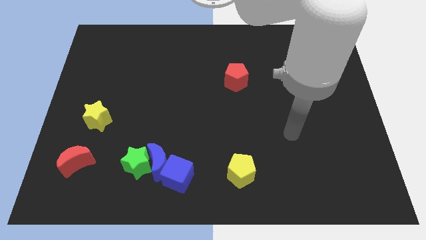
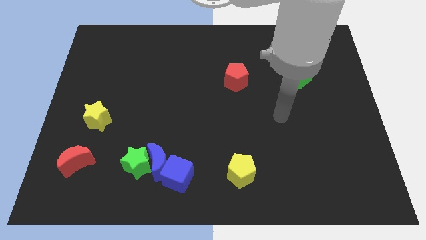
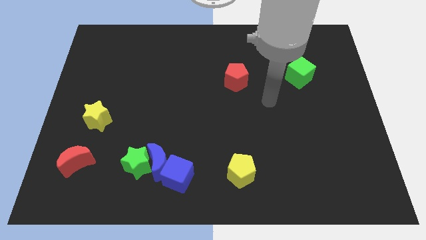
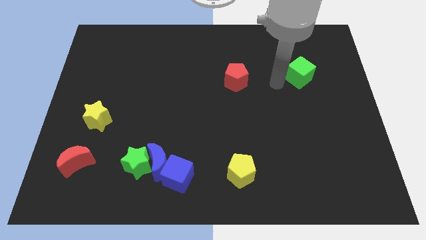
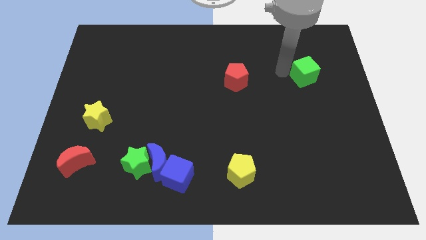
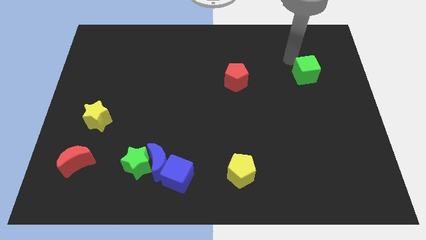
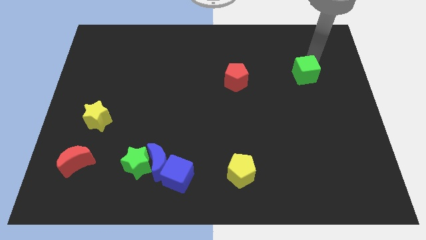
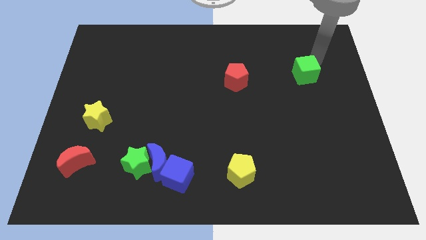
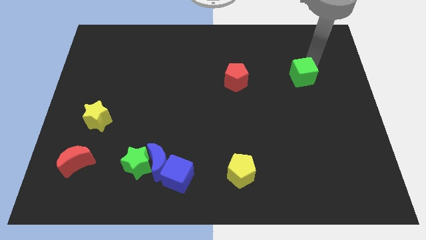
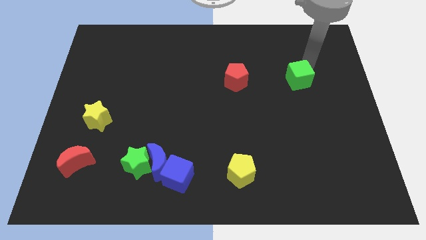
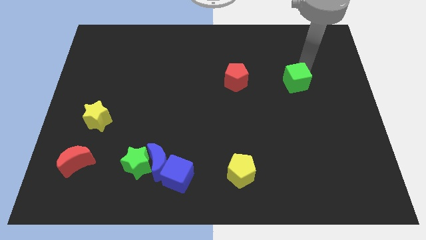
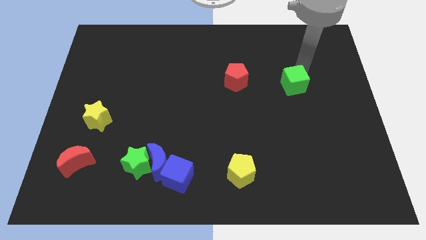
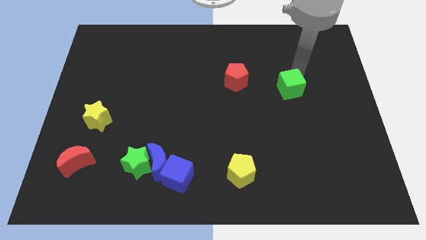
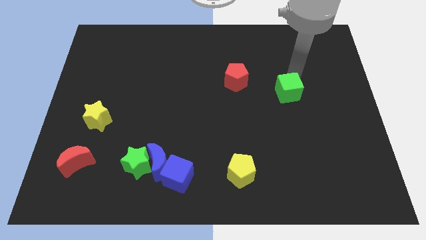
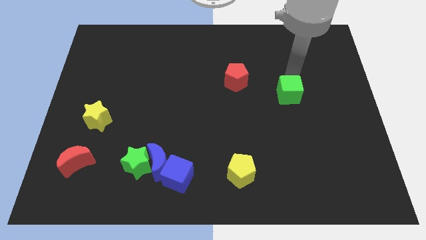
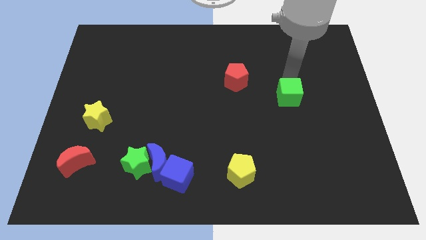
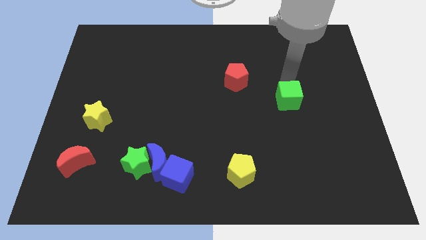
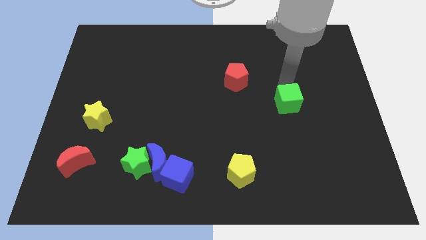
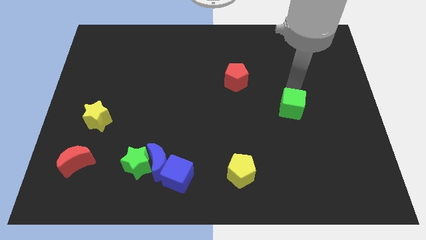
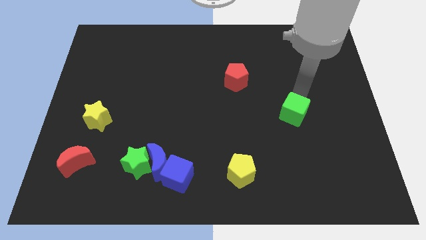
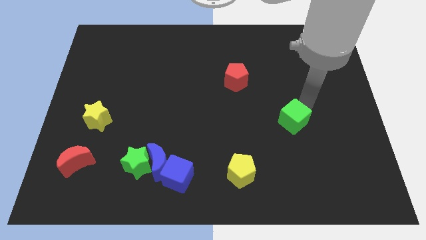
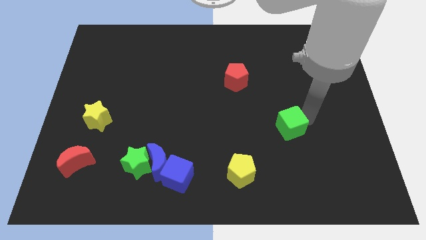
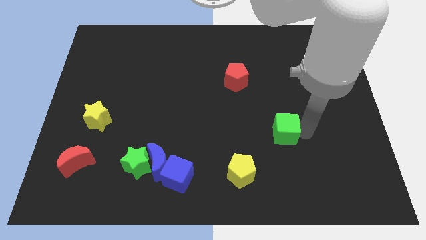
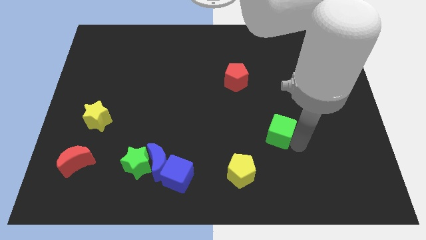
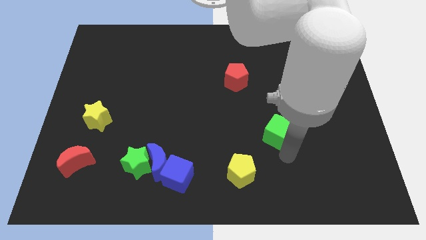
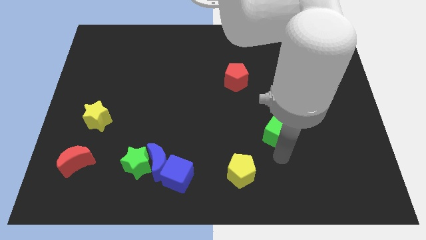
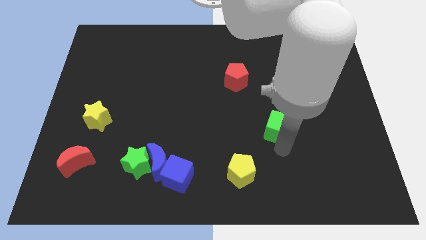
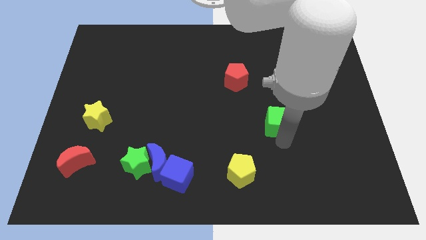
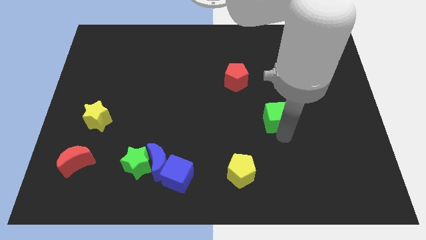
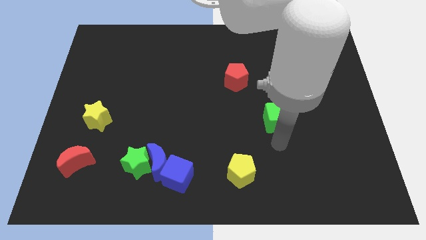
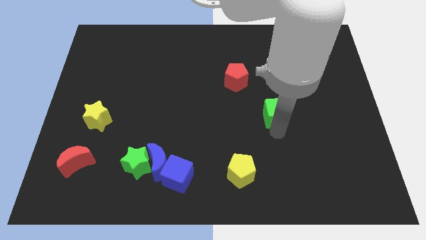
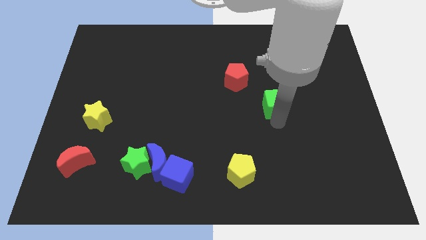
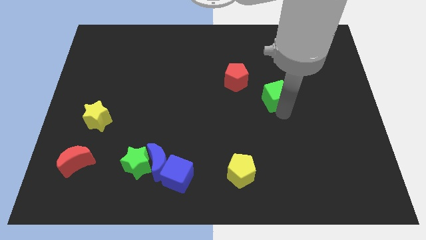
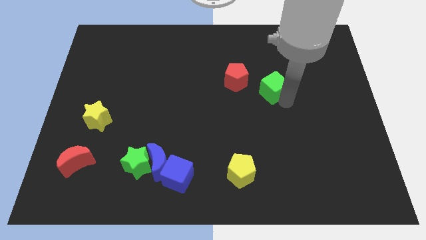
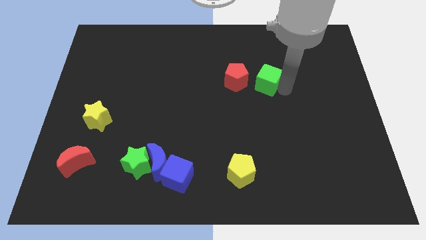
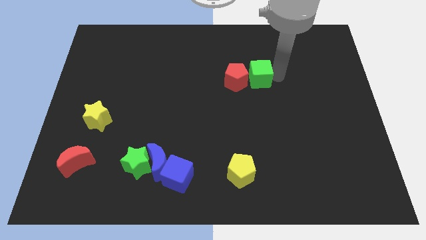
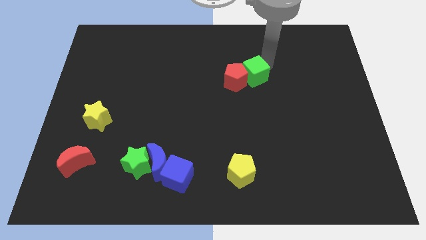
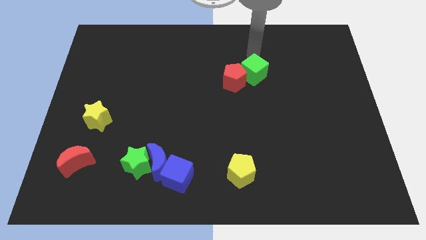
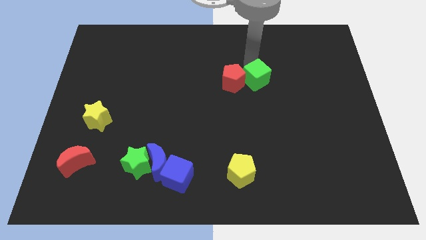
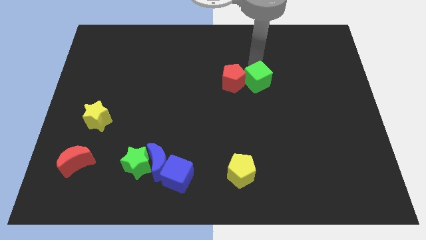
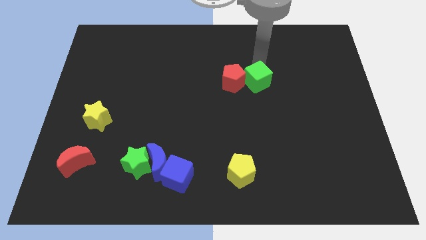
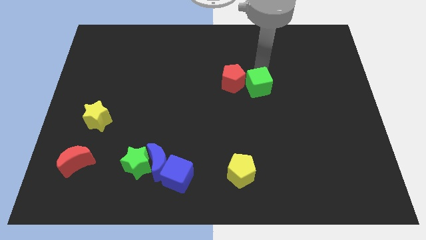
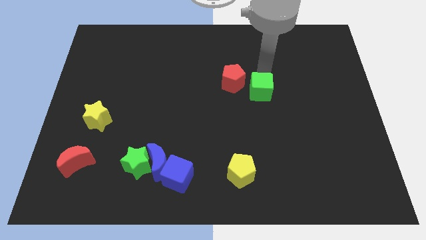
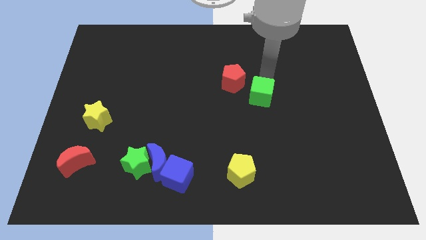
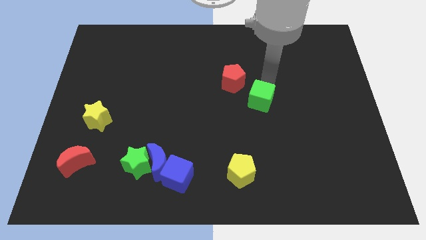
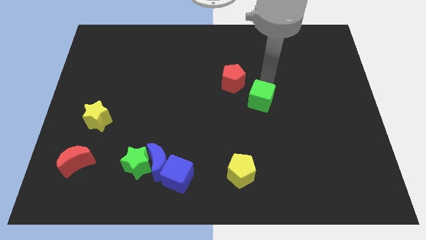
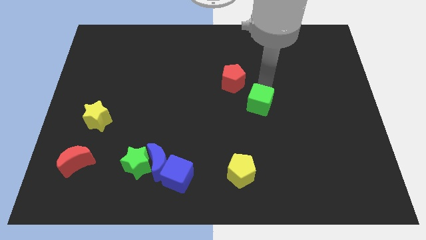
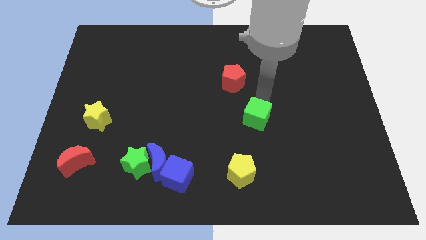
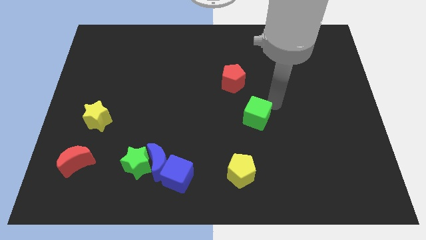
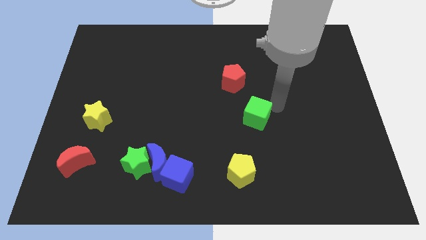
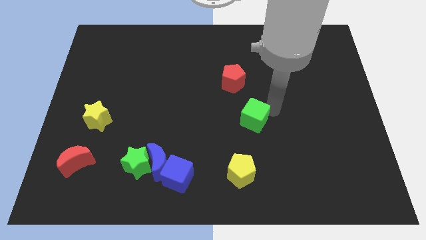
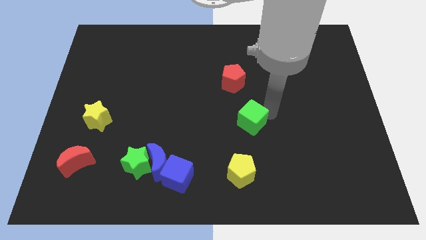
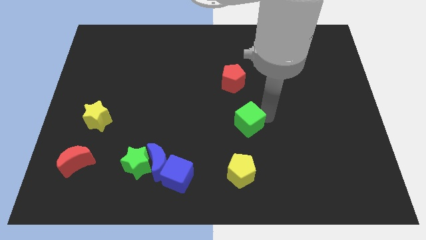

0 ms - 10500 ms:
move the green cube down and to the left diagonally

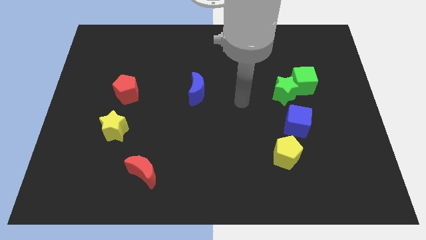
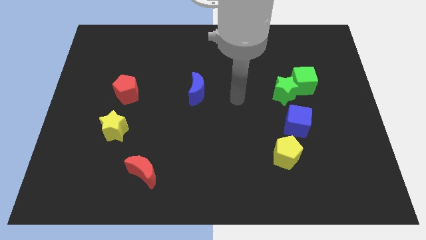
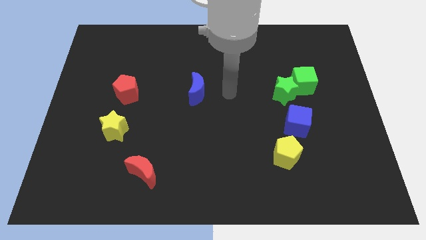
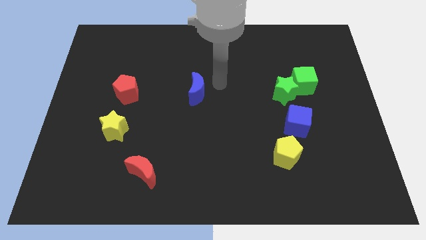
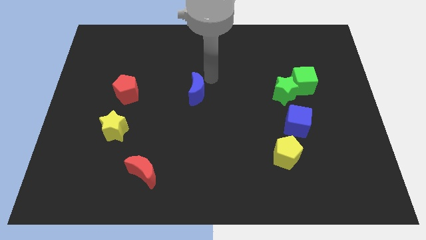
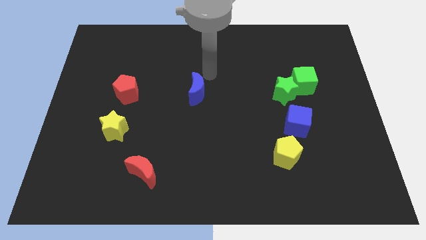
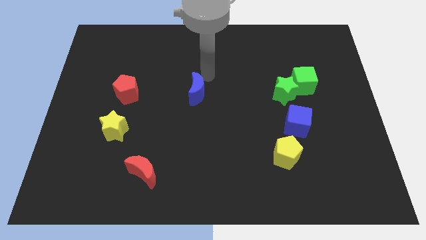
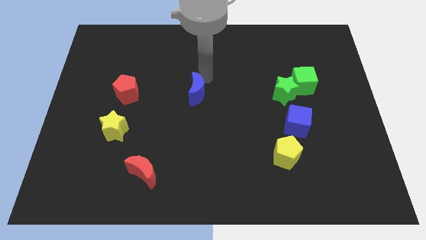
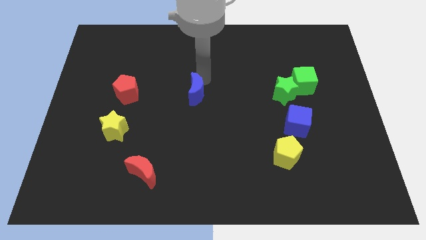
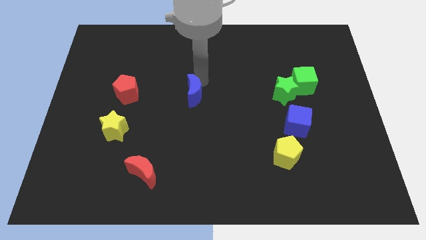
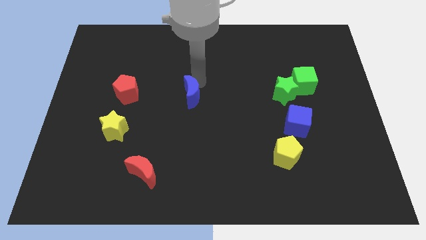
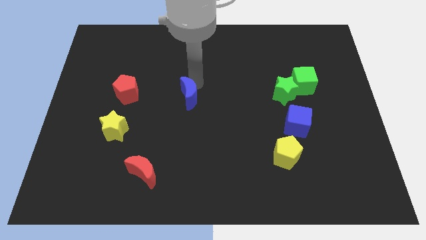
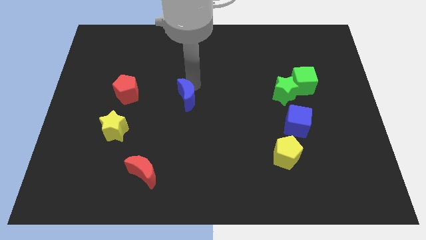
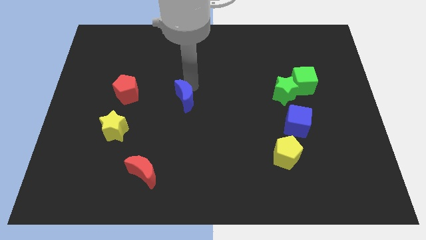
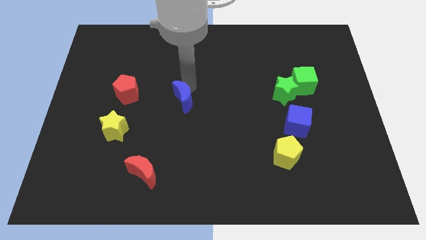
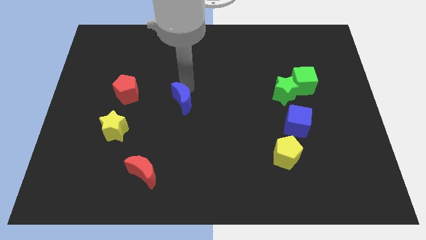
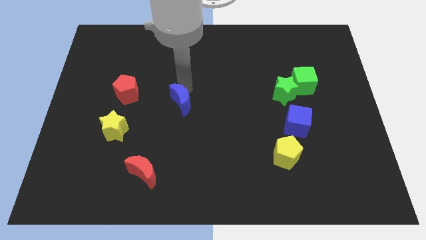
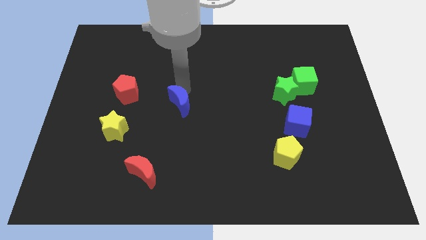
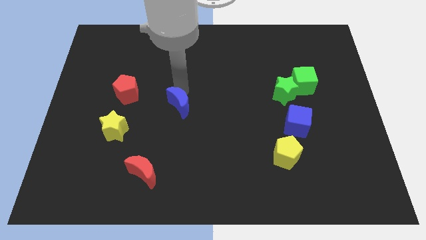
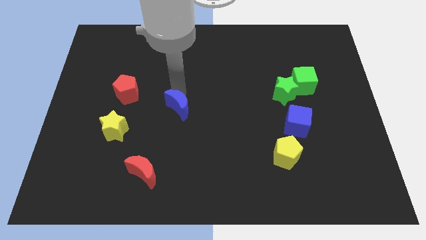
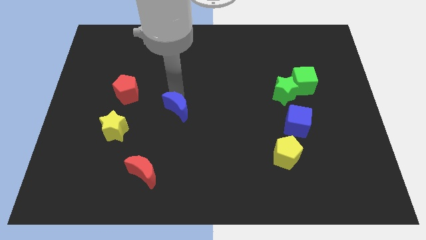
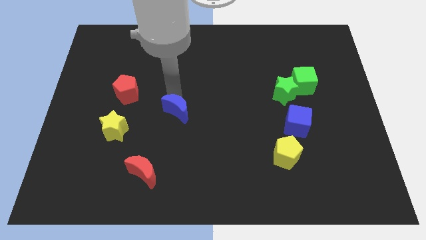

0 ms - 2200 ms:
push the blue moon down and to the left diagonally a little

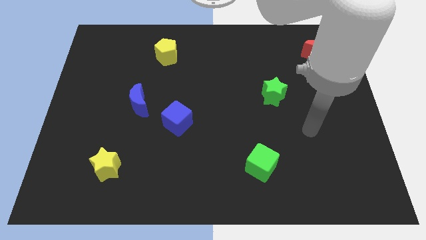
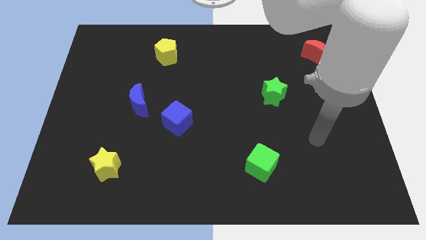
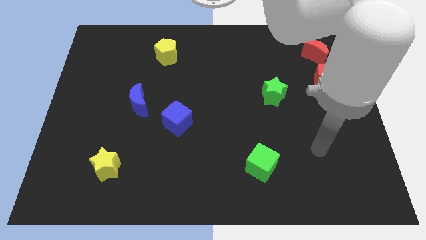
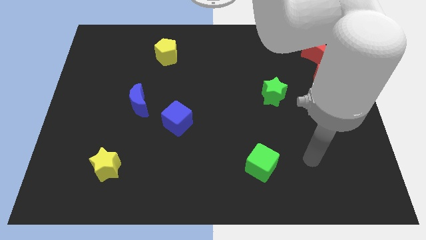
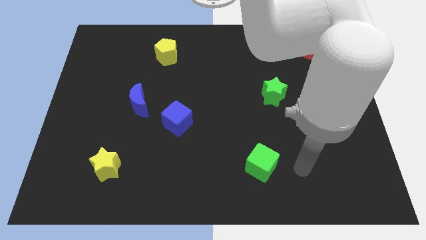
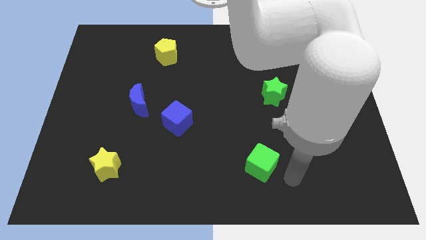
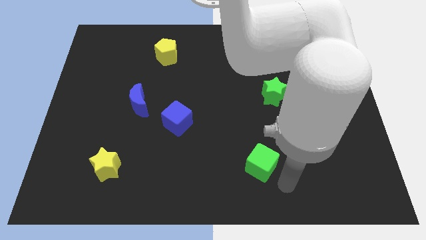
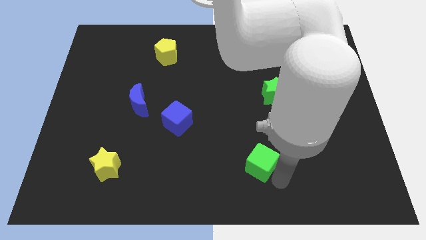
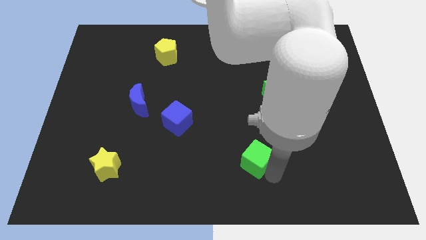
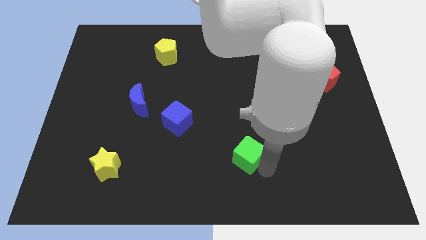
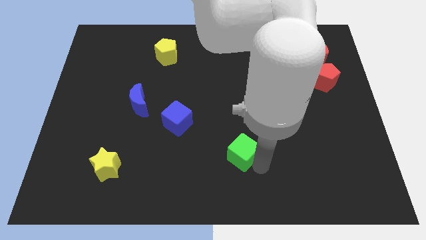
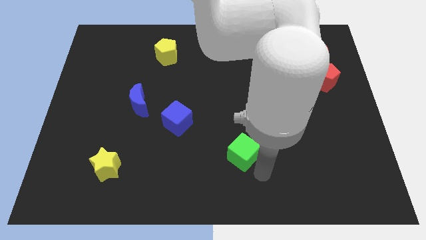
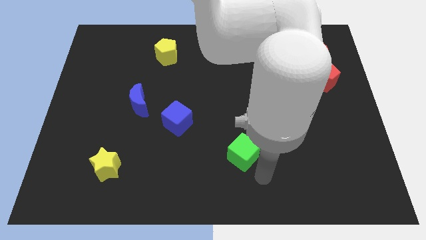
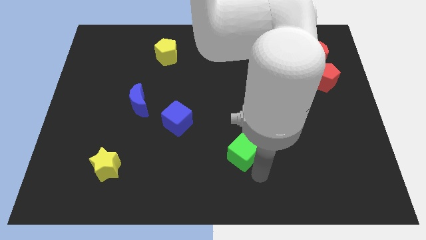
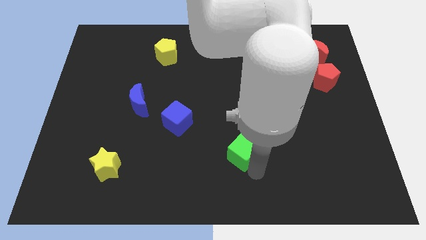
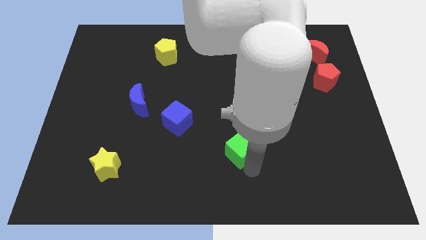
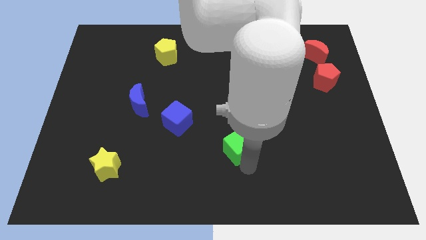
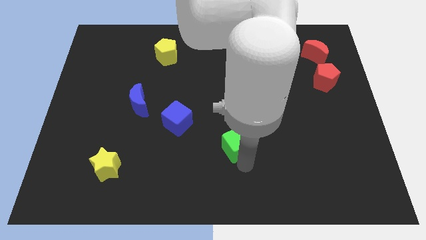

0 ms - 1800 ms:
move the green cube a bit up and left
